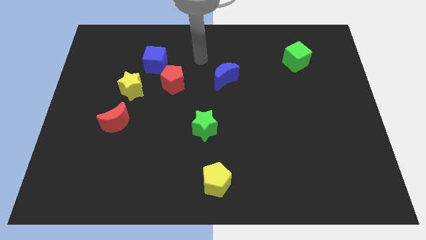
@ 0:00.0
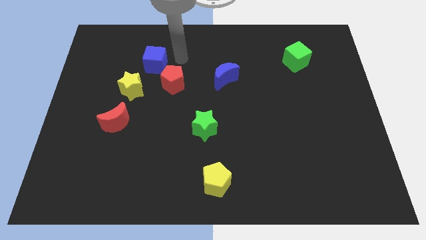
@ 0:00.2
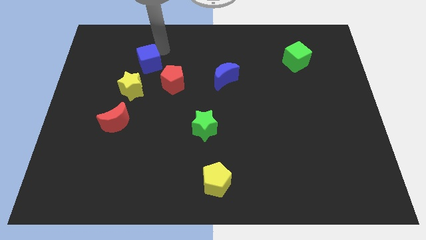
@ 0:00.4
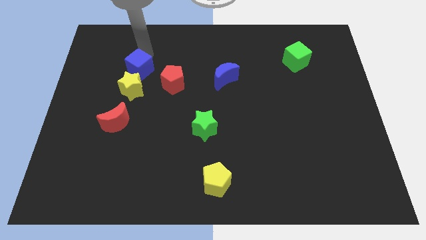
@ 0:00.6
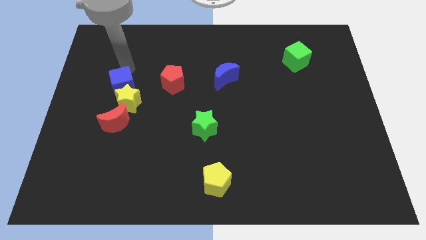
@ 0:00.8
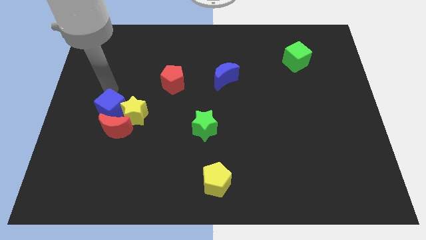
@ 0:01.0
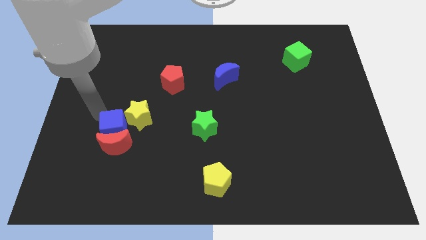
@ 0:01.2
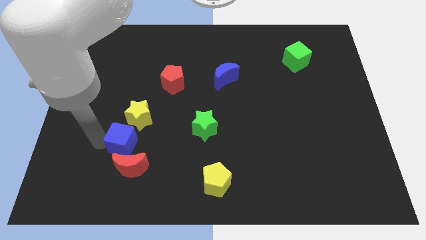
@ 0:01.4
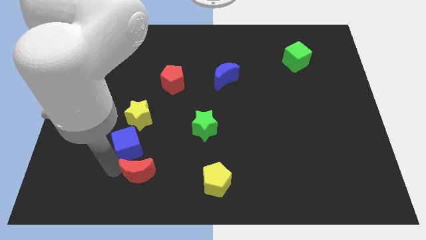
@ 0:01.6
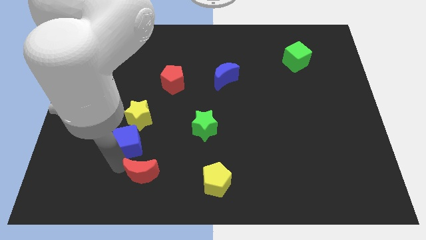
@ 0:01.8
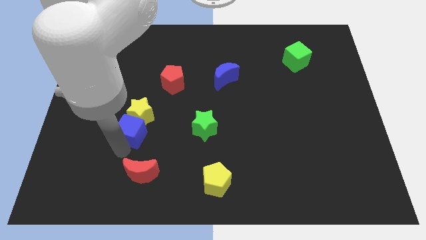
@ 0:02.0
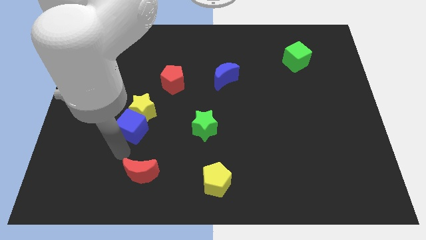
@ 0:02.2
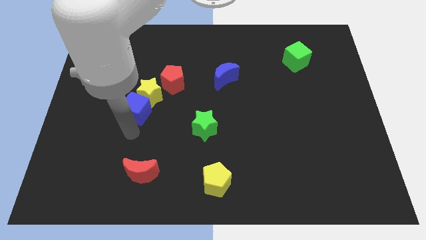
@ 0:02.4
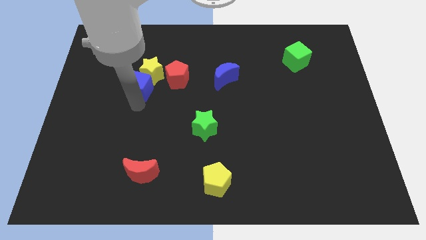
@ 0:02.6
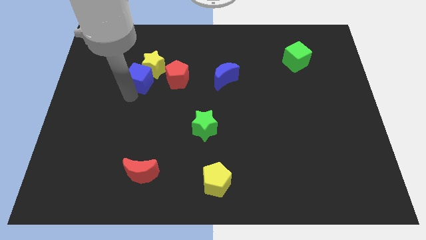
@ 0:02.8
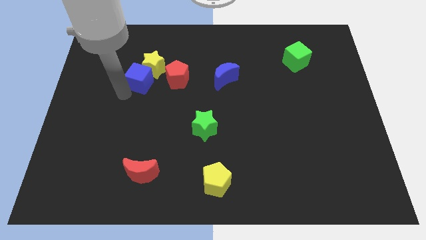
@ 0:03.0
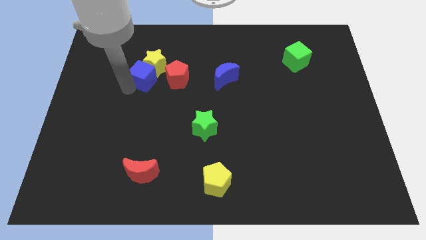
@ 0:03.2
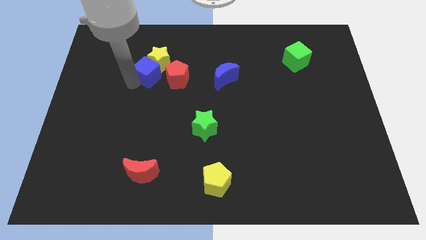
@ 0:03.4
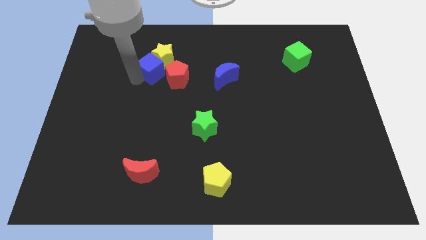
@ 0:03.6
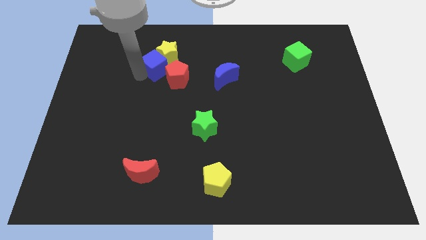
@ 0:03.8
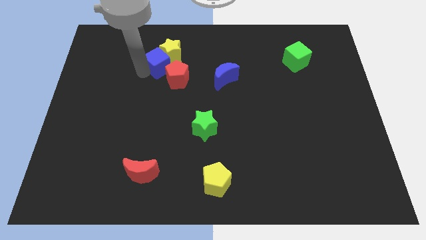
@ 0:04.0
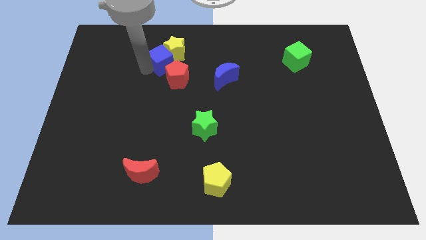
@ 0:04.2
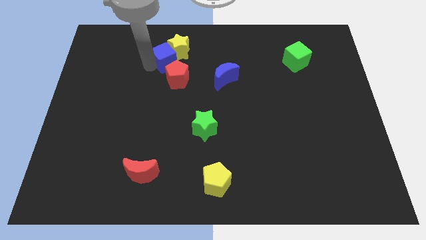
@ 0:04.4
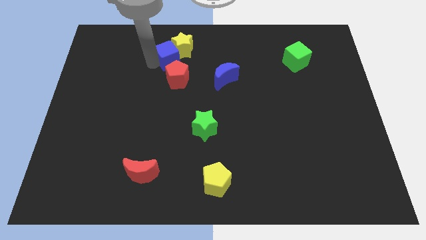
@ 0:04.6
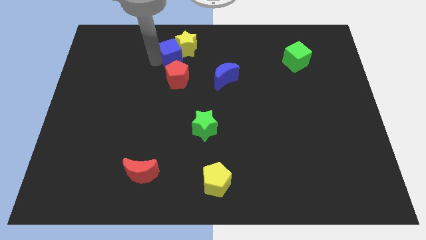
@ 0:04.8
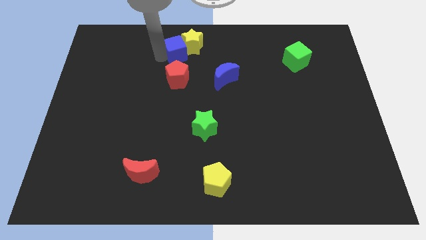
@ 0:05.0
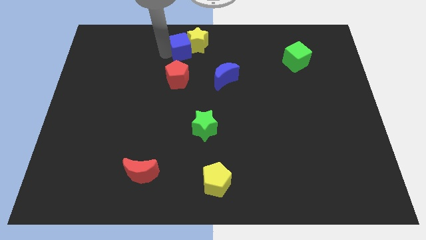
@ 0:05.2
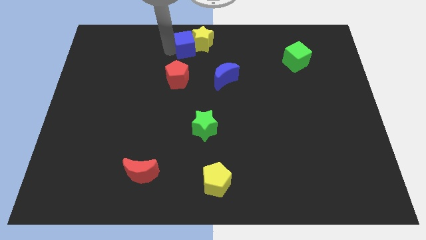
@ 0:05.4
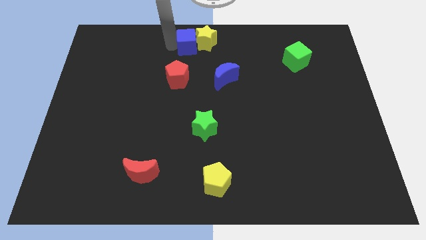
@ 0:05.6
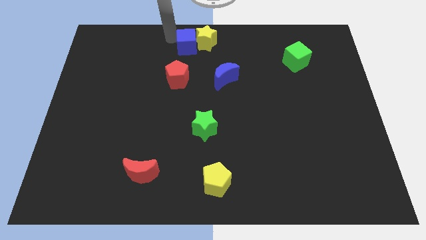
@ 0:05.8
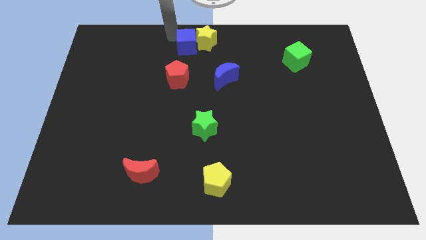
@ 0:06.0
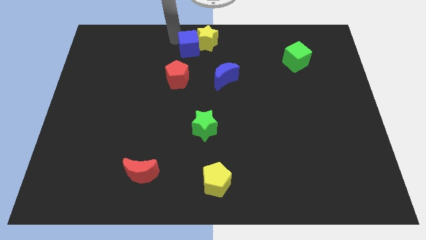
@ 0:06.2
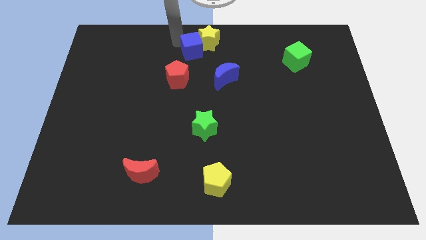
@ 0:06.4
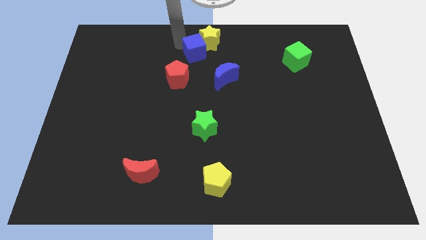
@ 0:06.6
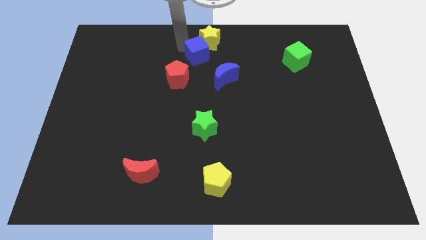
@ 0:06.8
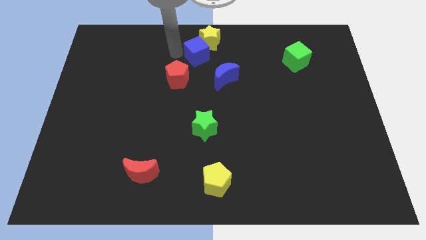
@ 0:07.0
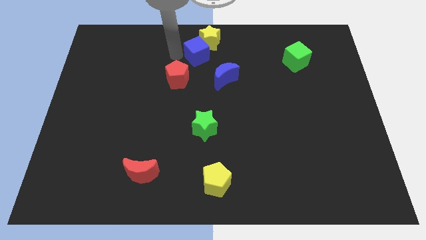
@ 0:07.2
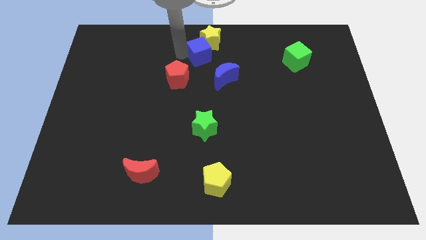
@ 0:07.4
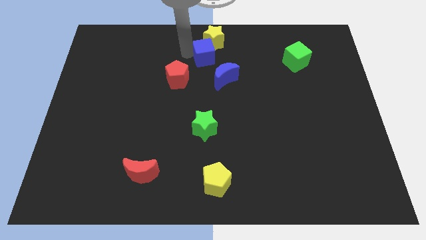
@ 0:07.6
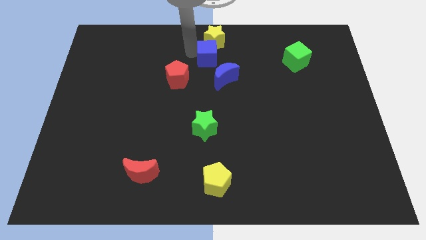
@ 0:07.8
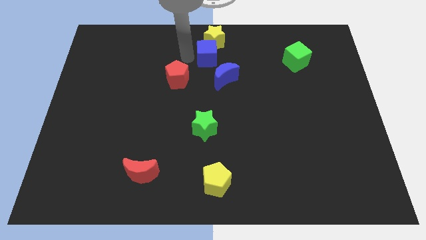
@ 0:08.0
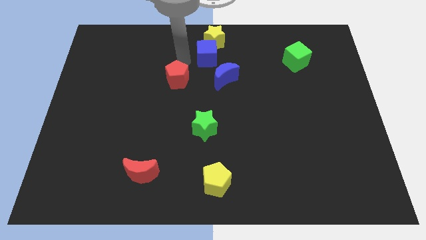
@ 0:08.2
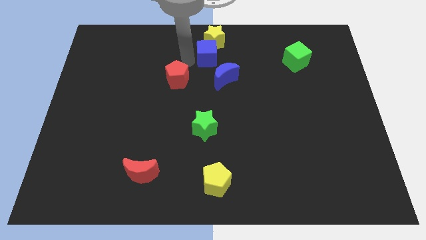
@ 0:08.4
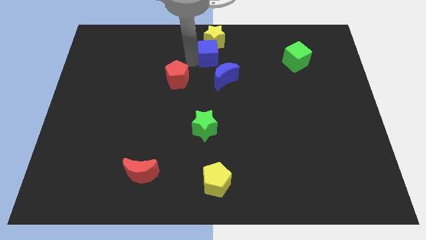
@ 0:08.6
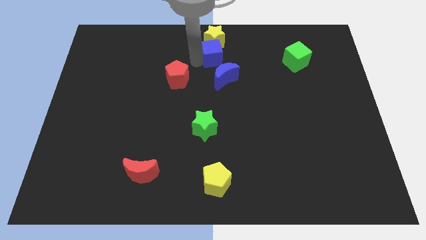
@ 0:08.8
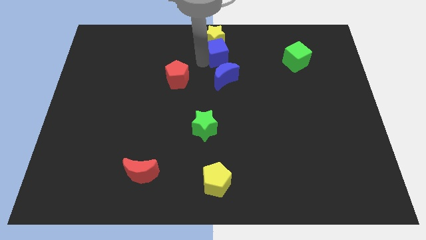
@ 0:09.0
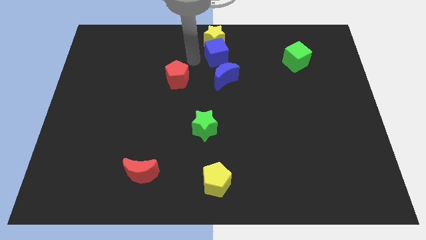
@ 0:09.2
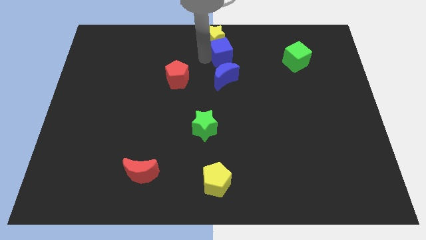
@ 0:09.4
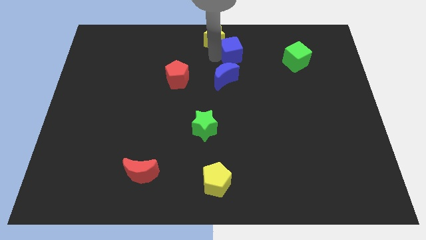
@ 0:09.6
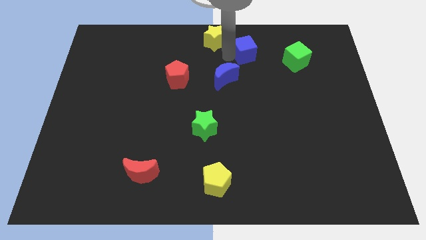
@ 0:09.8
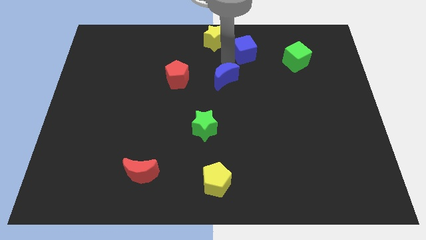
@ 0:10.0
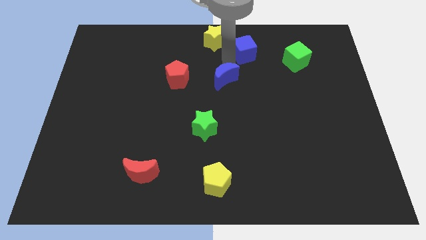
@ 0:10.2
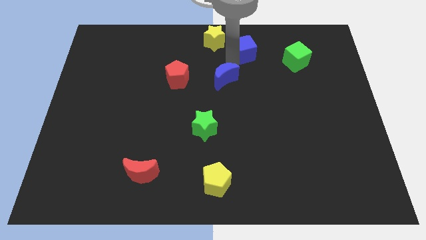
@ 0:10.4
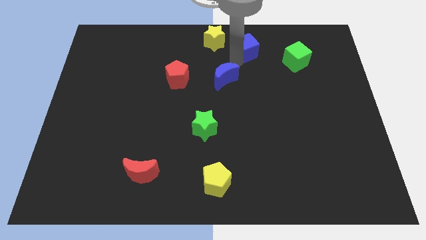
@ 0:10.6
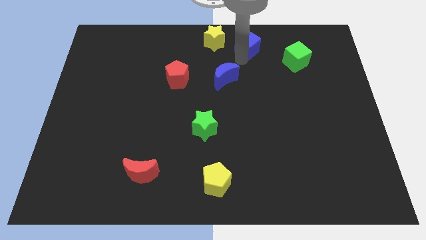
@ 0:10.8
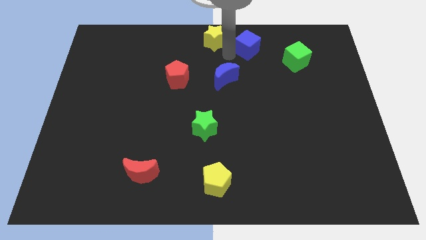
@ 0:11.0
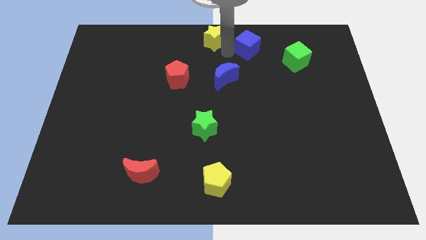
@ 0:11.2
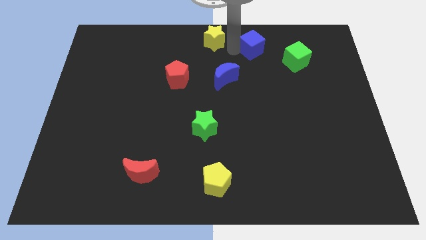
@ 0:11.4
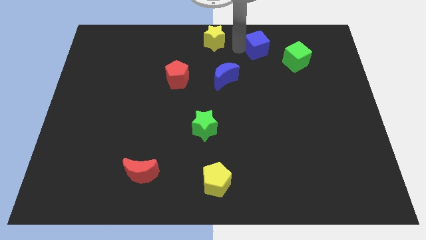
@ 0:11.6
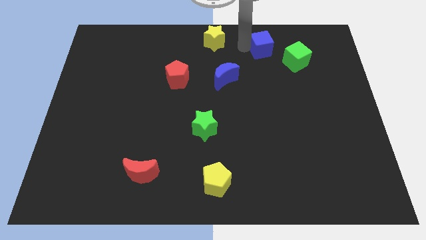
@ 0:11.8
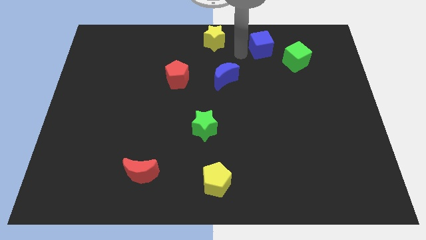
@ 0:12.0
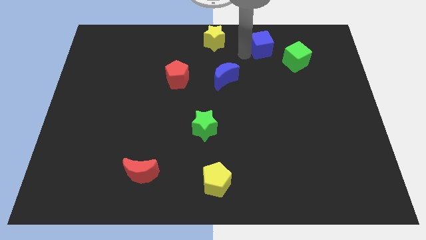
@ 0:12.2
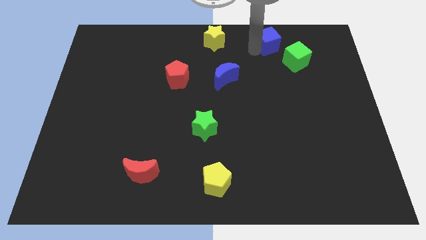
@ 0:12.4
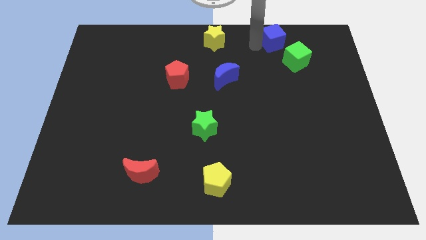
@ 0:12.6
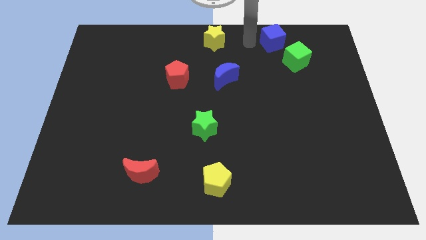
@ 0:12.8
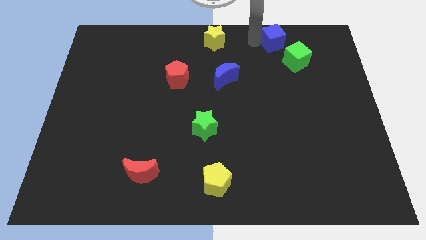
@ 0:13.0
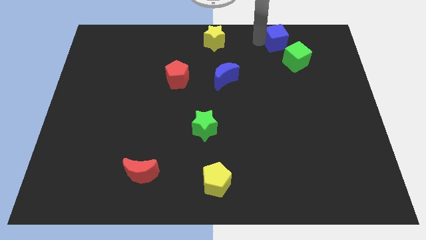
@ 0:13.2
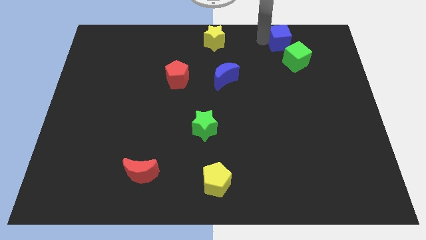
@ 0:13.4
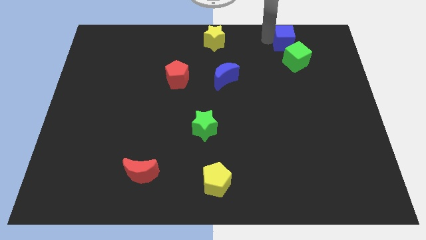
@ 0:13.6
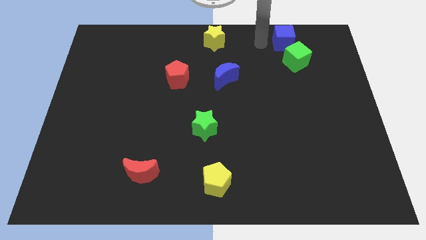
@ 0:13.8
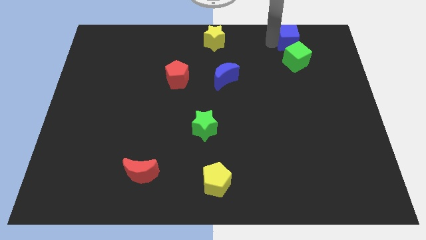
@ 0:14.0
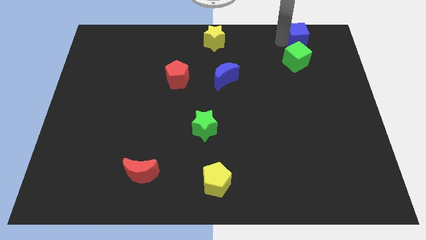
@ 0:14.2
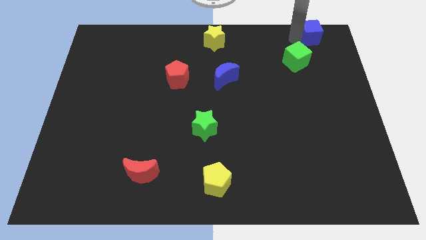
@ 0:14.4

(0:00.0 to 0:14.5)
push the blue cube to the top right

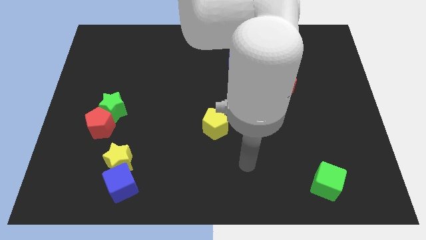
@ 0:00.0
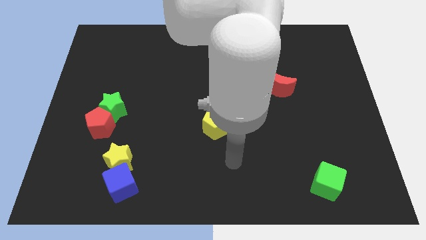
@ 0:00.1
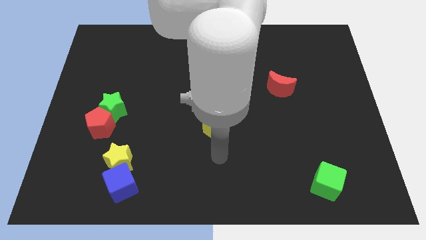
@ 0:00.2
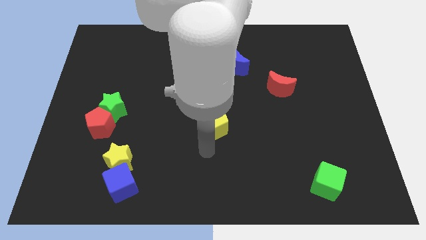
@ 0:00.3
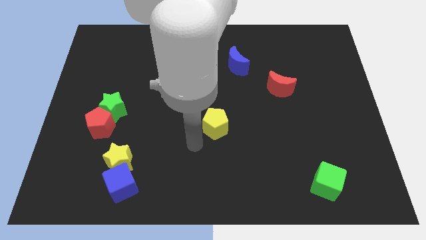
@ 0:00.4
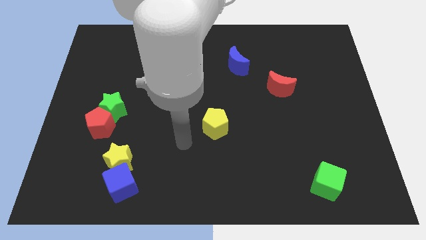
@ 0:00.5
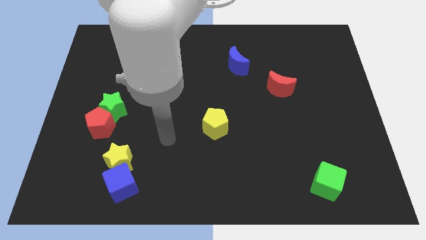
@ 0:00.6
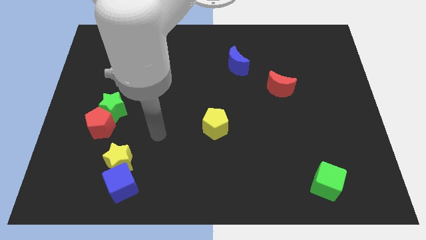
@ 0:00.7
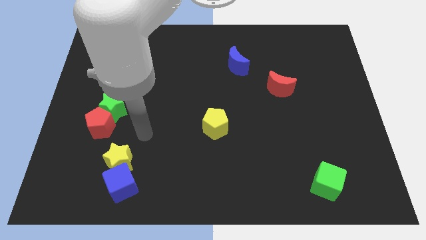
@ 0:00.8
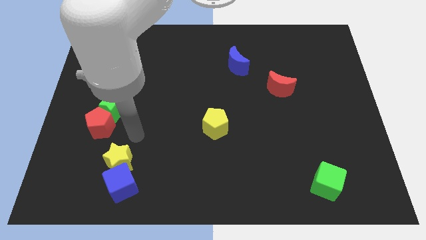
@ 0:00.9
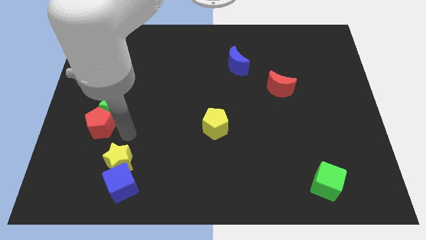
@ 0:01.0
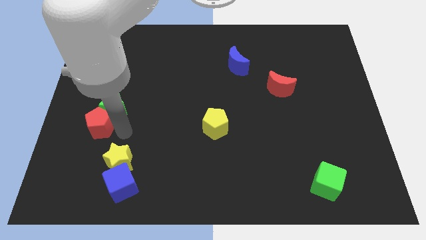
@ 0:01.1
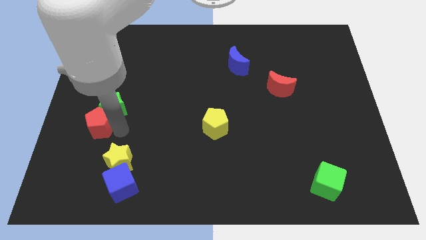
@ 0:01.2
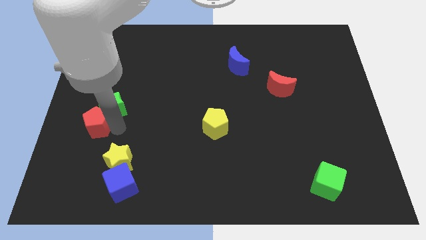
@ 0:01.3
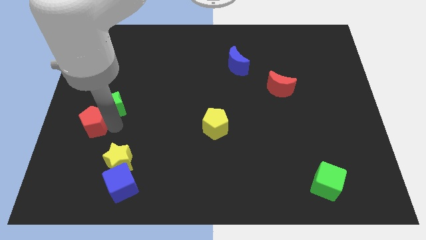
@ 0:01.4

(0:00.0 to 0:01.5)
put the red pentagon to the center left
